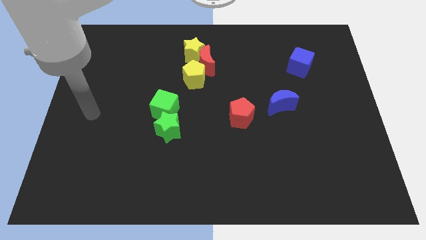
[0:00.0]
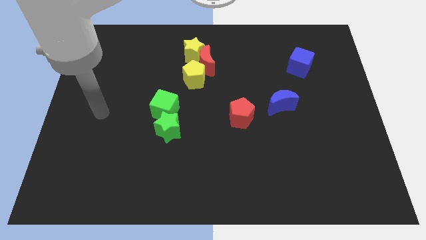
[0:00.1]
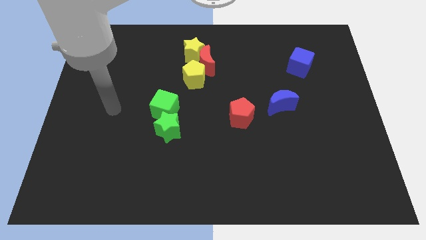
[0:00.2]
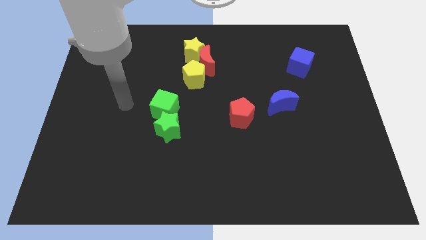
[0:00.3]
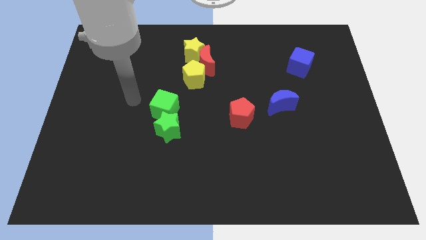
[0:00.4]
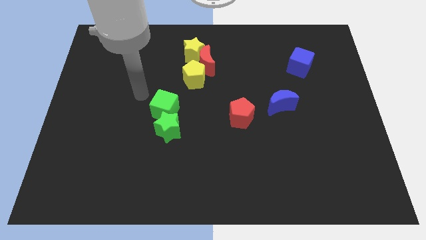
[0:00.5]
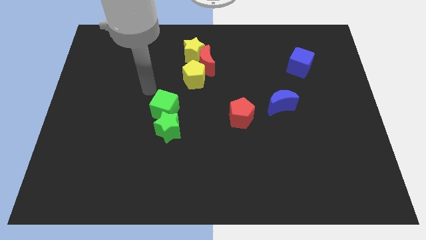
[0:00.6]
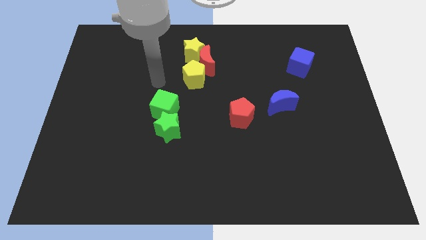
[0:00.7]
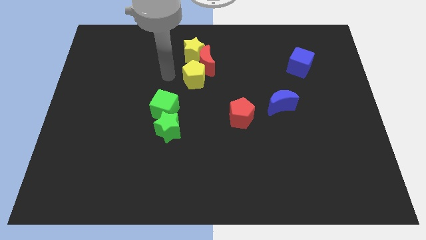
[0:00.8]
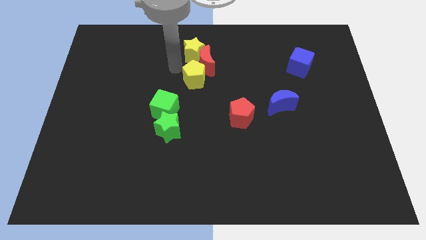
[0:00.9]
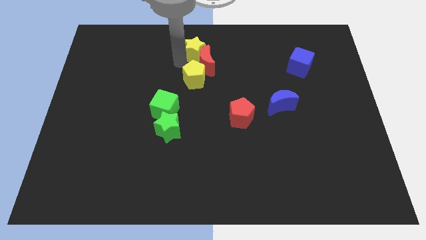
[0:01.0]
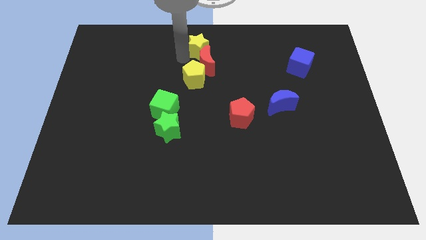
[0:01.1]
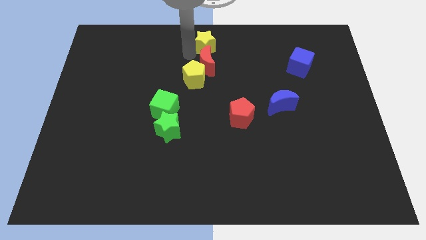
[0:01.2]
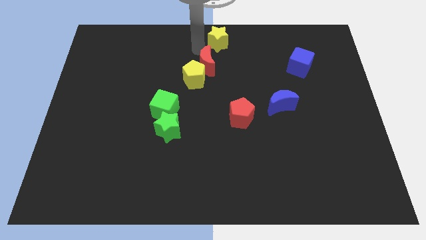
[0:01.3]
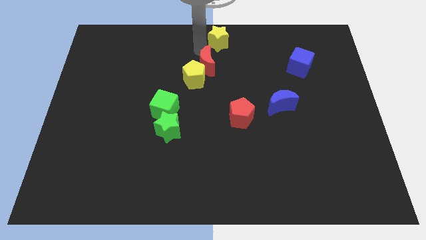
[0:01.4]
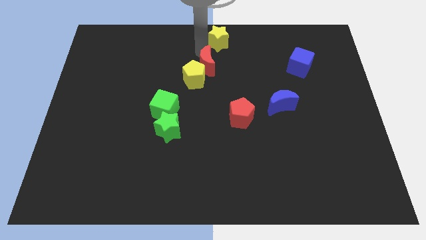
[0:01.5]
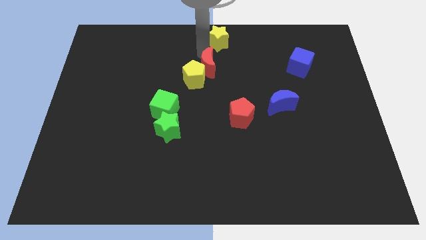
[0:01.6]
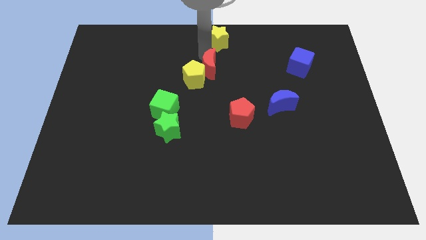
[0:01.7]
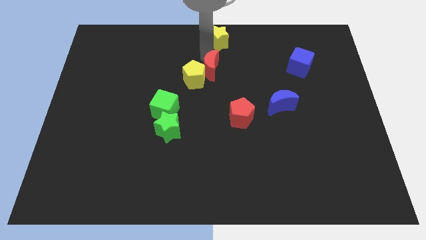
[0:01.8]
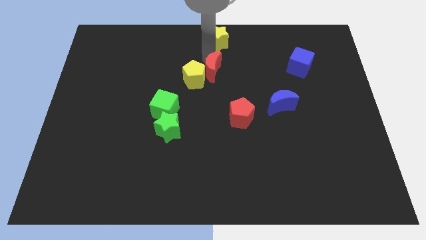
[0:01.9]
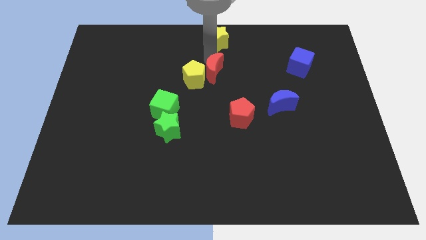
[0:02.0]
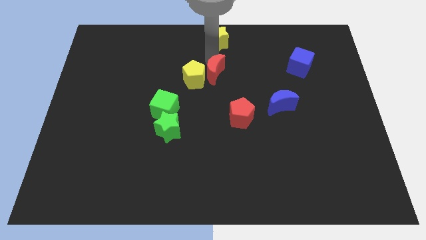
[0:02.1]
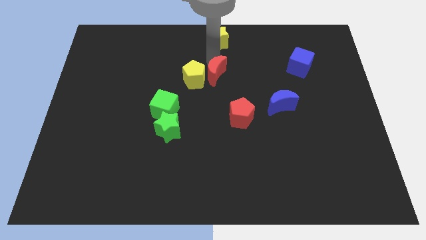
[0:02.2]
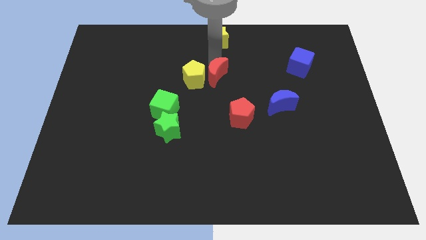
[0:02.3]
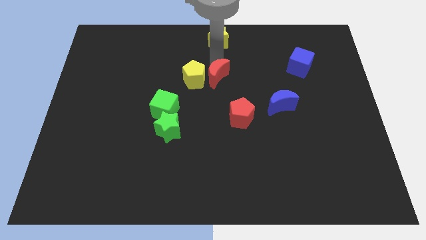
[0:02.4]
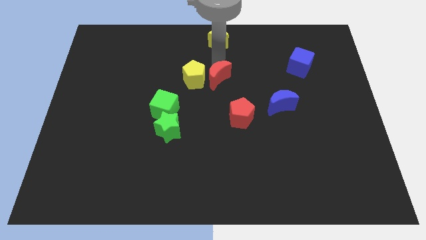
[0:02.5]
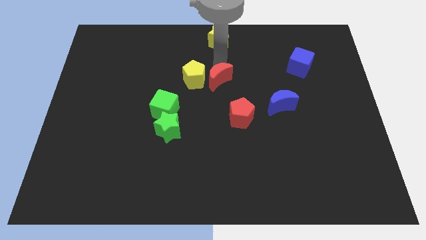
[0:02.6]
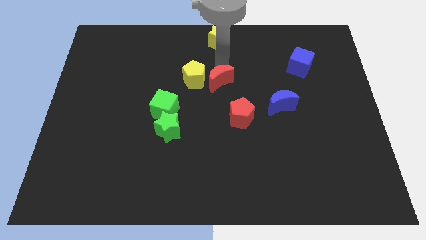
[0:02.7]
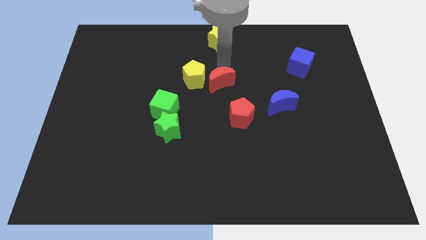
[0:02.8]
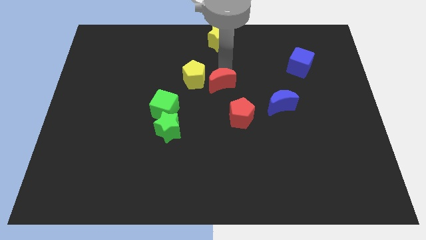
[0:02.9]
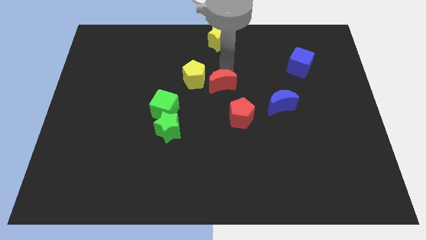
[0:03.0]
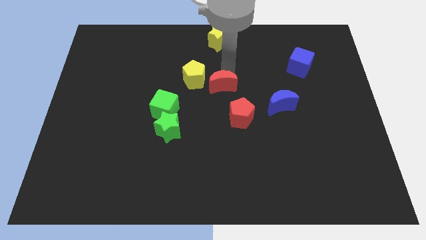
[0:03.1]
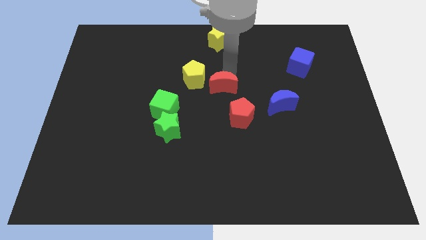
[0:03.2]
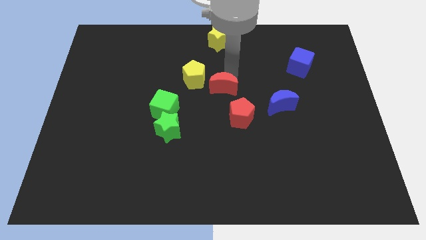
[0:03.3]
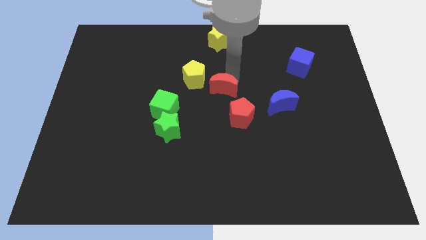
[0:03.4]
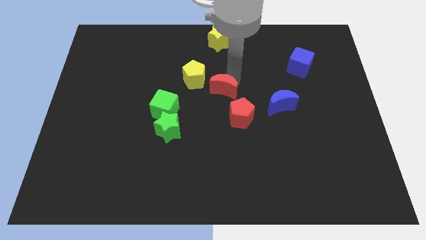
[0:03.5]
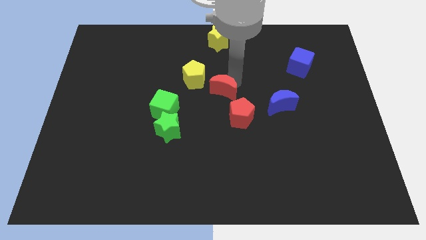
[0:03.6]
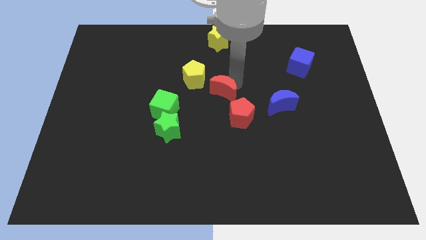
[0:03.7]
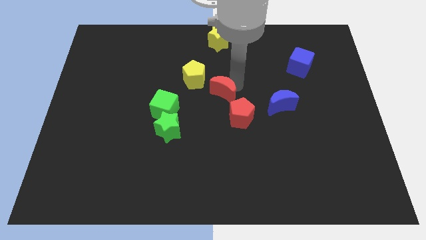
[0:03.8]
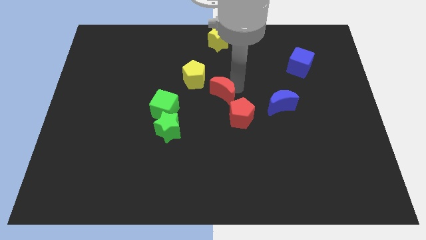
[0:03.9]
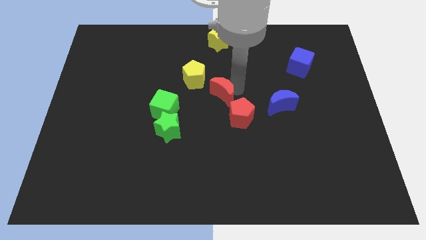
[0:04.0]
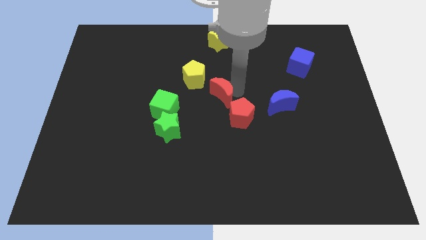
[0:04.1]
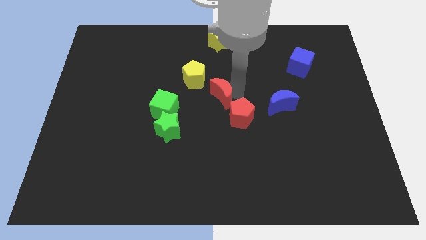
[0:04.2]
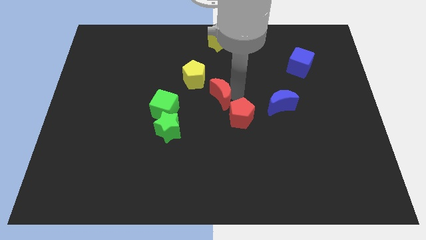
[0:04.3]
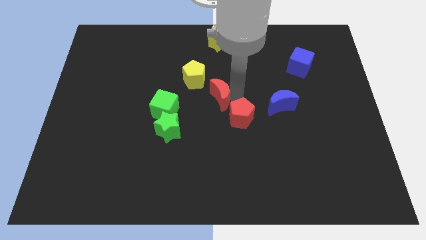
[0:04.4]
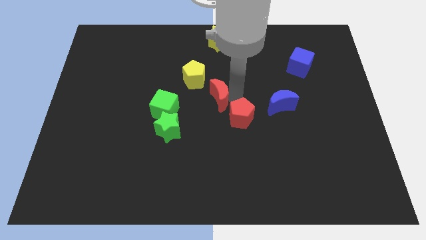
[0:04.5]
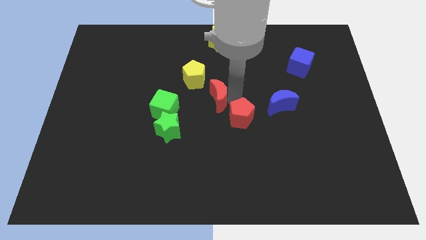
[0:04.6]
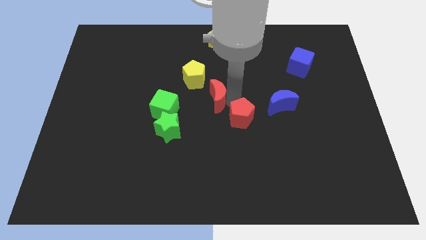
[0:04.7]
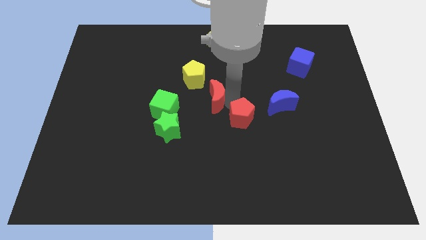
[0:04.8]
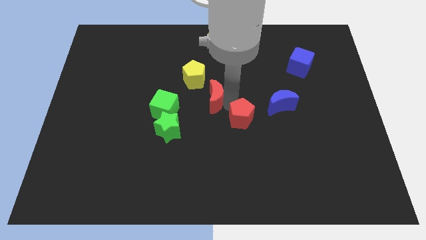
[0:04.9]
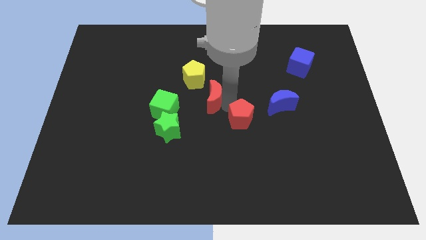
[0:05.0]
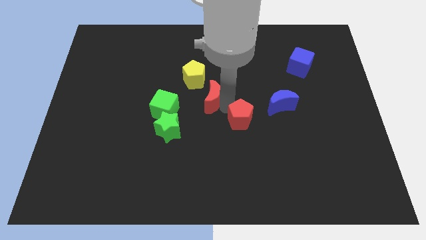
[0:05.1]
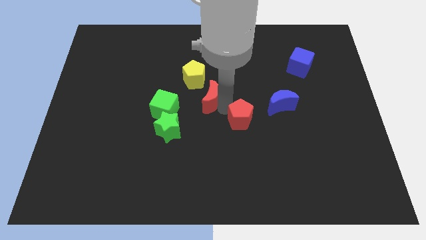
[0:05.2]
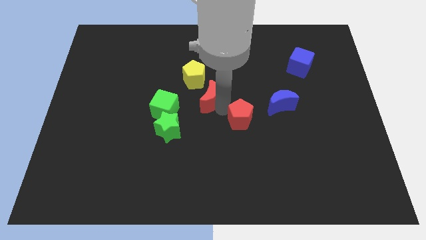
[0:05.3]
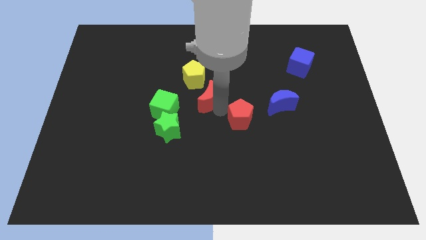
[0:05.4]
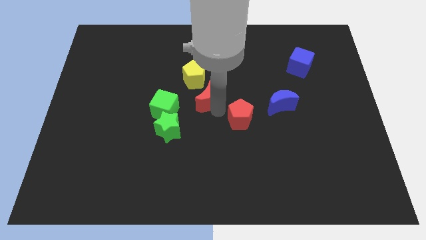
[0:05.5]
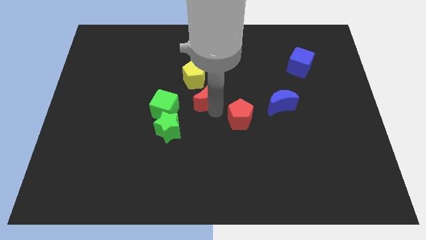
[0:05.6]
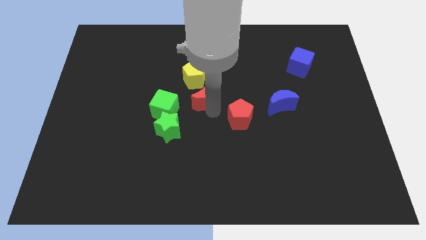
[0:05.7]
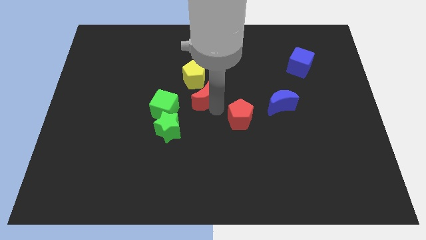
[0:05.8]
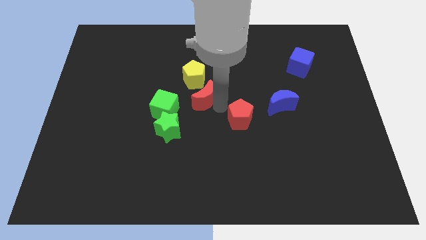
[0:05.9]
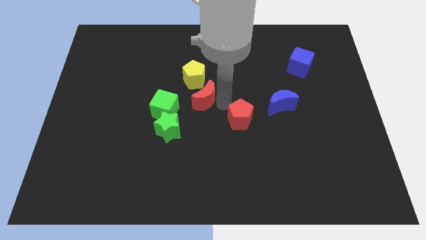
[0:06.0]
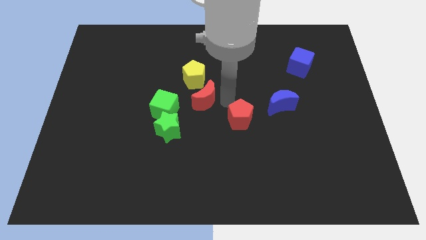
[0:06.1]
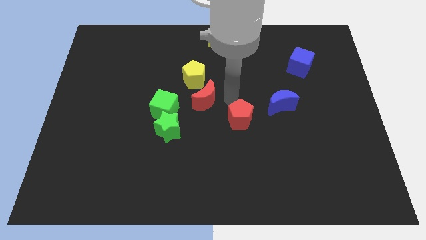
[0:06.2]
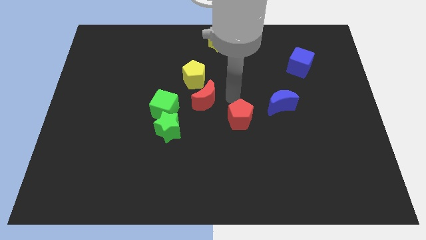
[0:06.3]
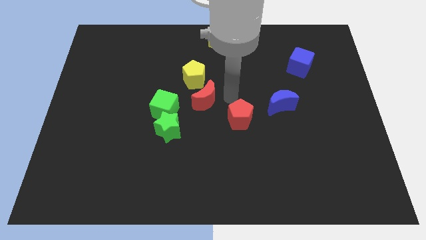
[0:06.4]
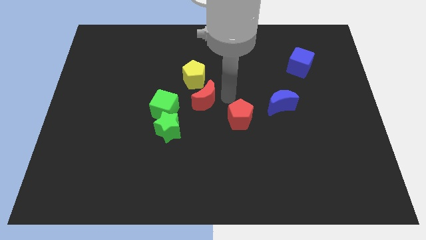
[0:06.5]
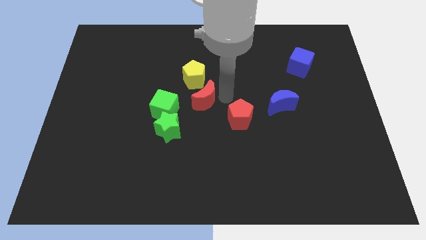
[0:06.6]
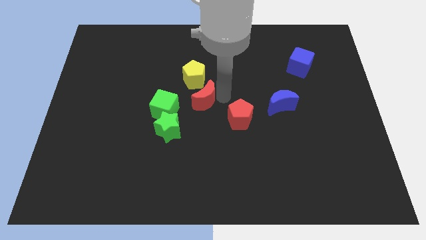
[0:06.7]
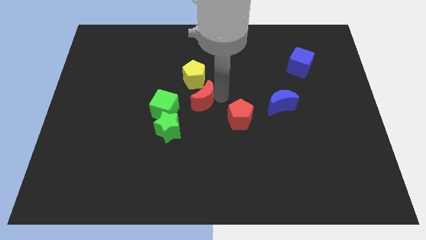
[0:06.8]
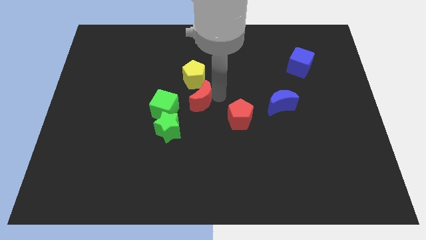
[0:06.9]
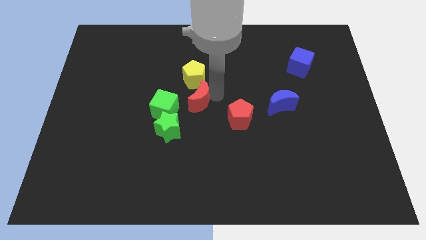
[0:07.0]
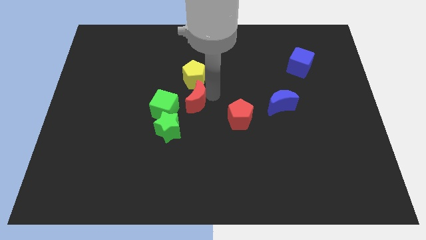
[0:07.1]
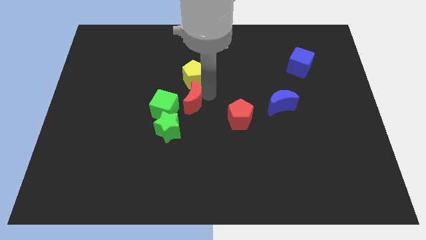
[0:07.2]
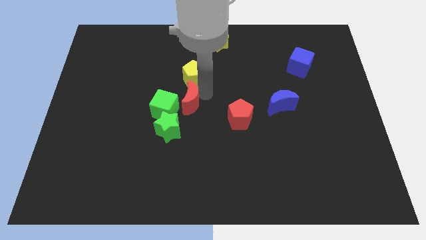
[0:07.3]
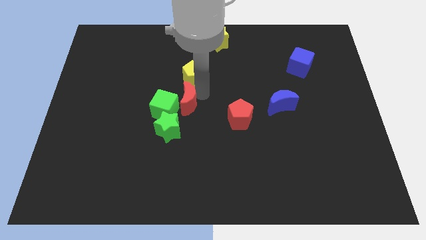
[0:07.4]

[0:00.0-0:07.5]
push the red moon close to the green cube
